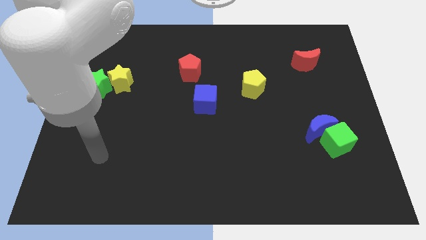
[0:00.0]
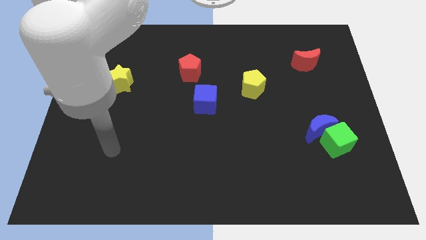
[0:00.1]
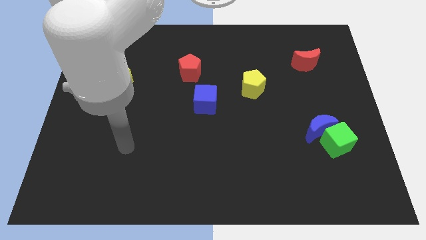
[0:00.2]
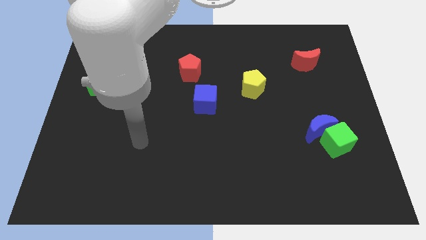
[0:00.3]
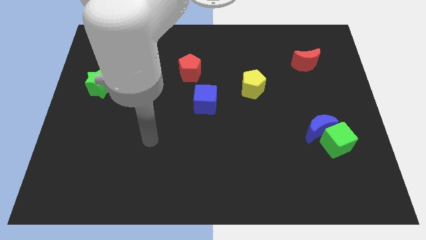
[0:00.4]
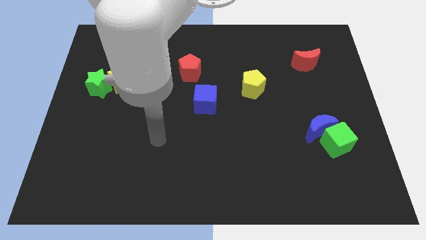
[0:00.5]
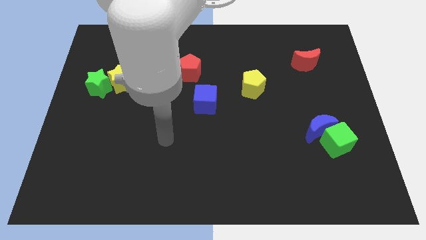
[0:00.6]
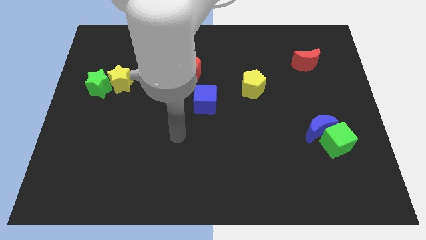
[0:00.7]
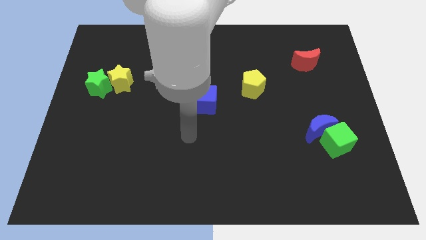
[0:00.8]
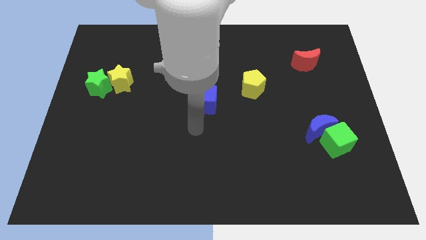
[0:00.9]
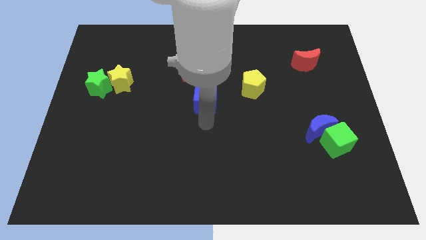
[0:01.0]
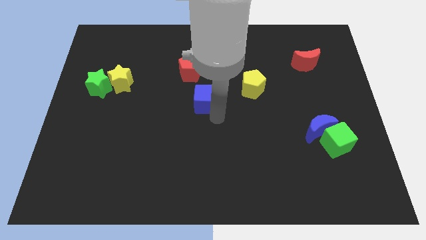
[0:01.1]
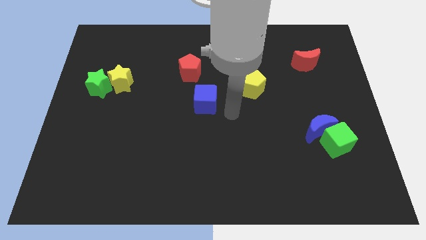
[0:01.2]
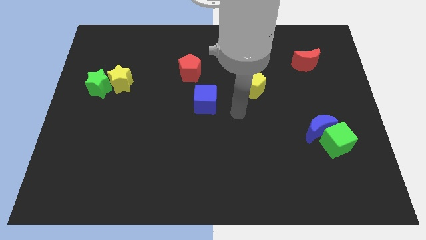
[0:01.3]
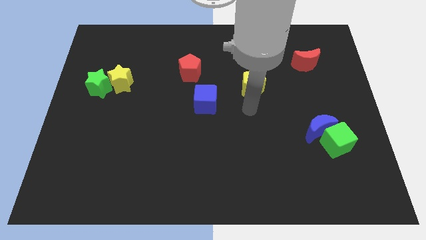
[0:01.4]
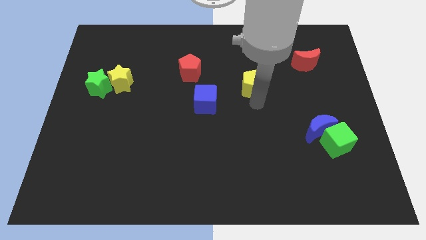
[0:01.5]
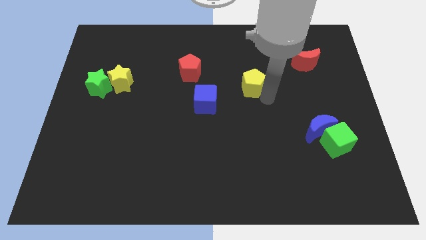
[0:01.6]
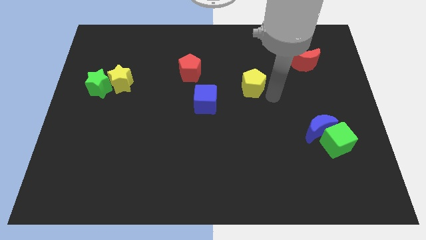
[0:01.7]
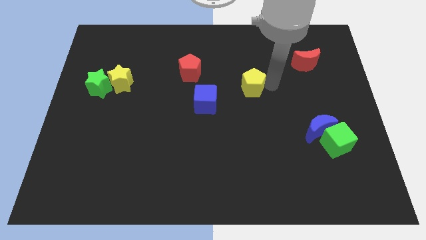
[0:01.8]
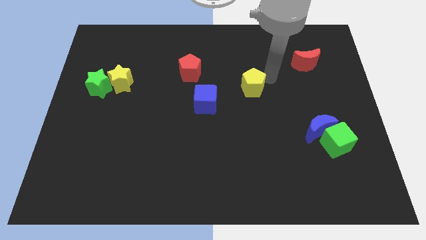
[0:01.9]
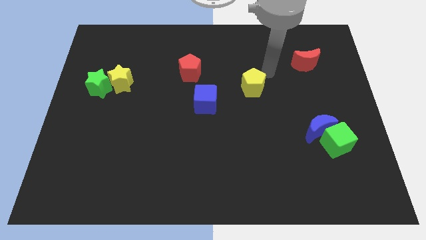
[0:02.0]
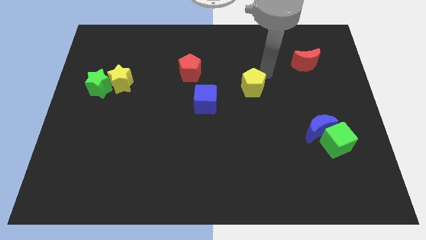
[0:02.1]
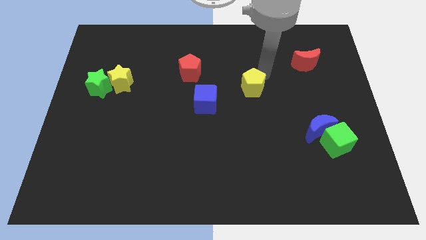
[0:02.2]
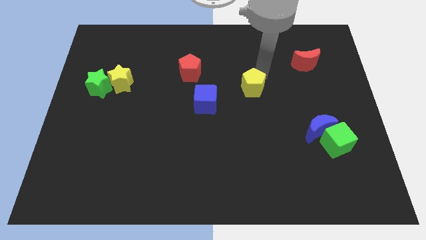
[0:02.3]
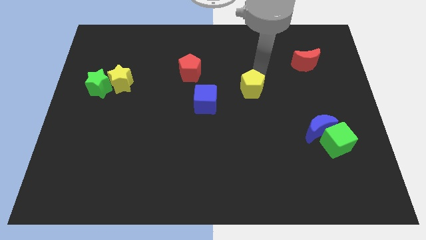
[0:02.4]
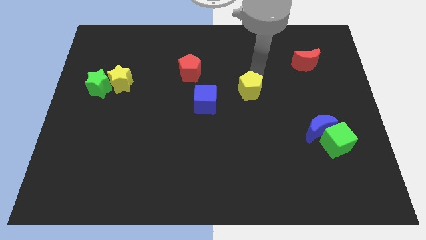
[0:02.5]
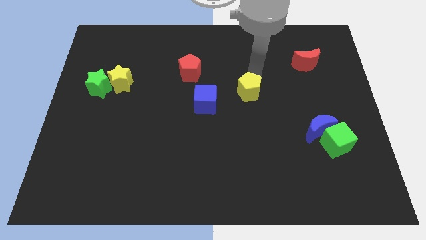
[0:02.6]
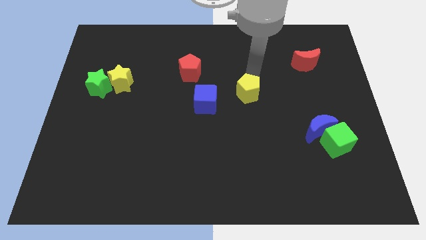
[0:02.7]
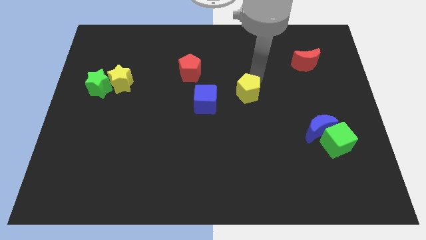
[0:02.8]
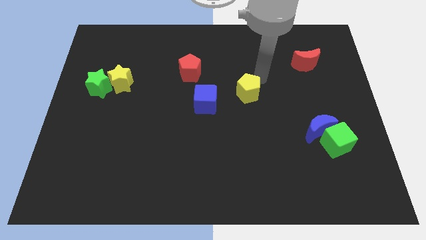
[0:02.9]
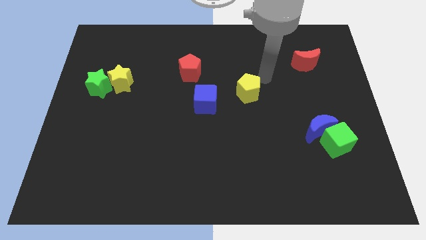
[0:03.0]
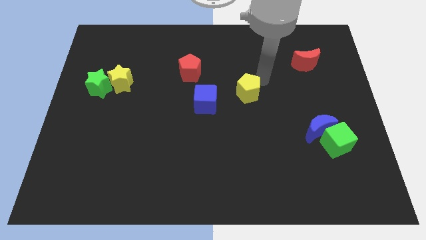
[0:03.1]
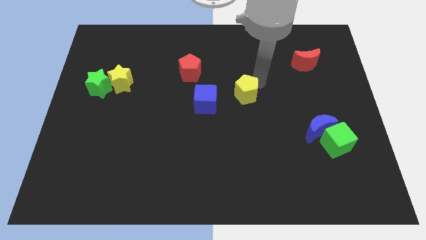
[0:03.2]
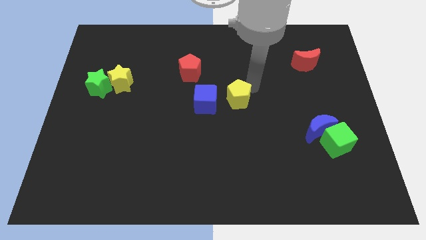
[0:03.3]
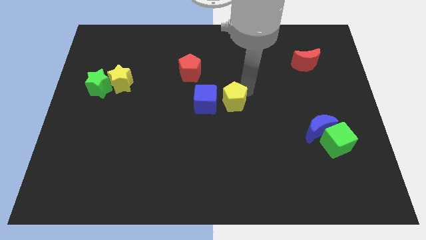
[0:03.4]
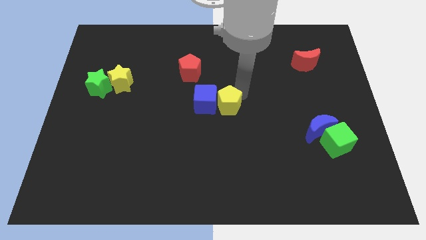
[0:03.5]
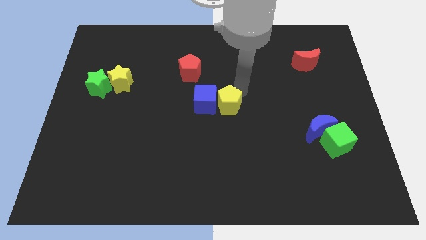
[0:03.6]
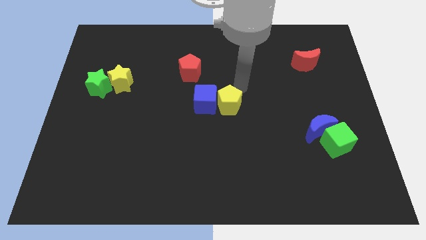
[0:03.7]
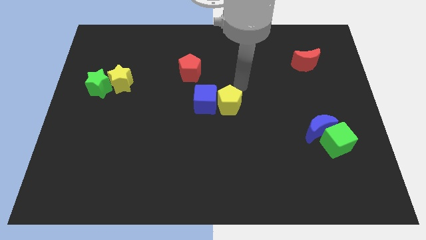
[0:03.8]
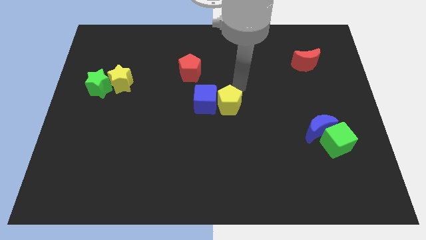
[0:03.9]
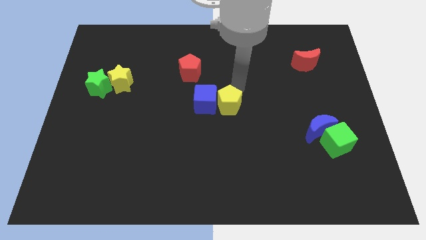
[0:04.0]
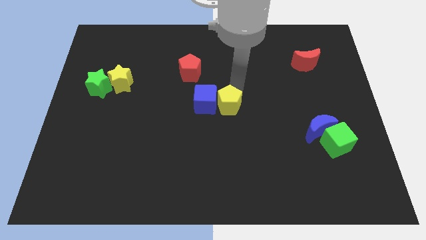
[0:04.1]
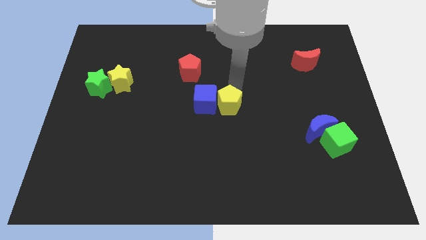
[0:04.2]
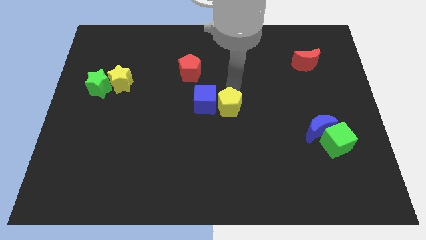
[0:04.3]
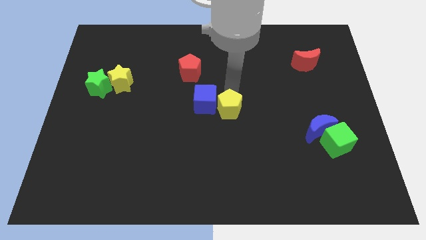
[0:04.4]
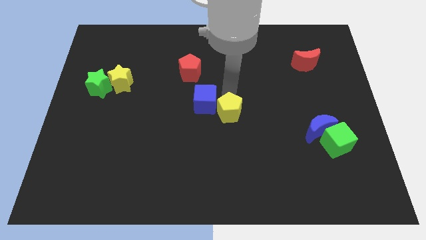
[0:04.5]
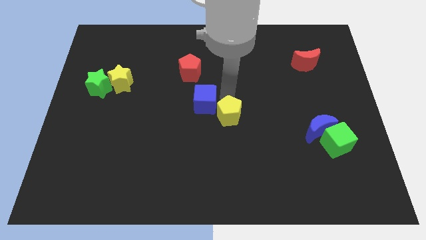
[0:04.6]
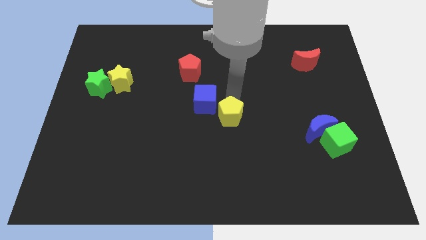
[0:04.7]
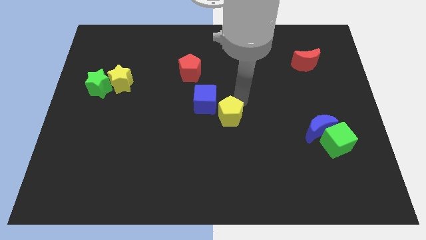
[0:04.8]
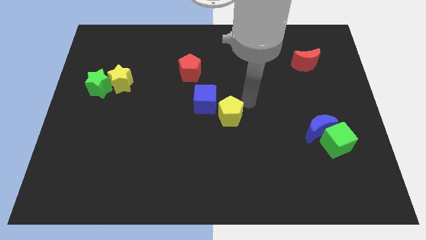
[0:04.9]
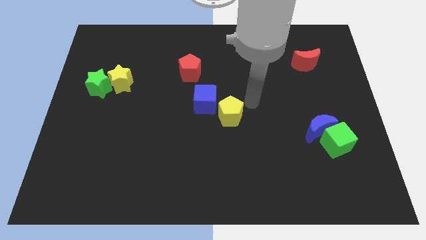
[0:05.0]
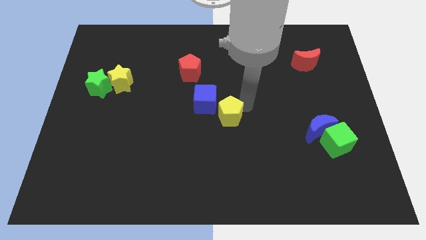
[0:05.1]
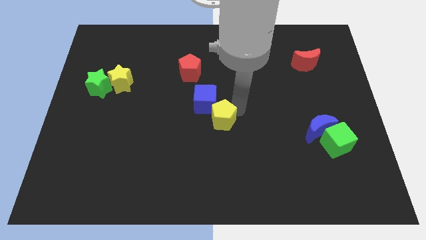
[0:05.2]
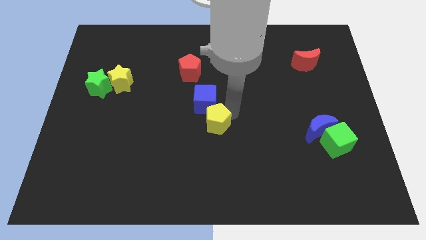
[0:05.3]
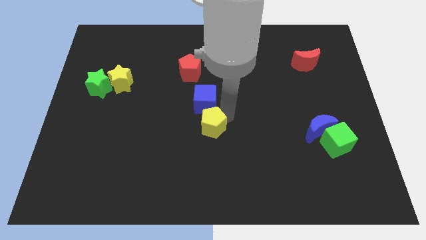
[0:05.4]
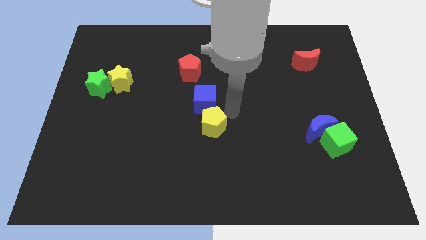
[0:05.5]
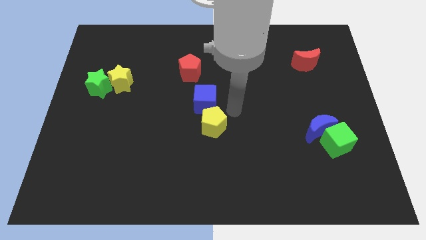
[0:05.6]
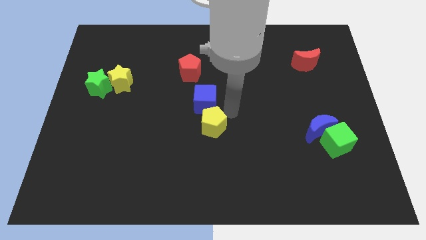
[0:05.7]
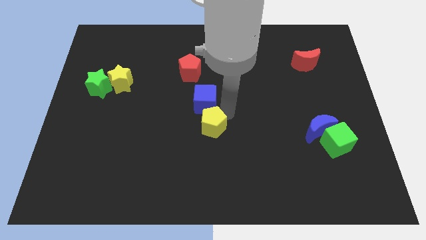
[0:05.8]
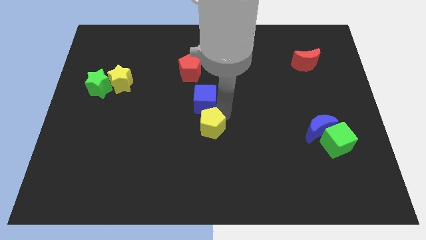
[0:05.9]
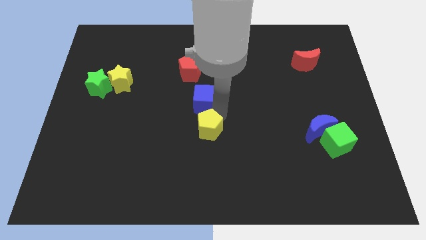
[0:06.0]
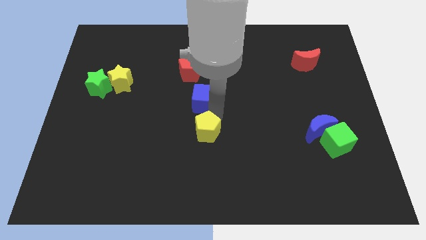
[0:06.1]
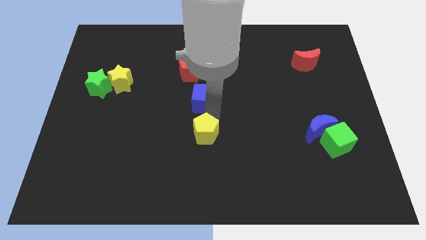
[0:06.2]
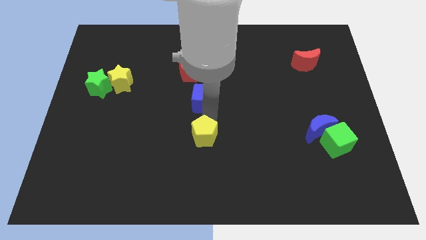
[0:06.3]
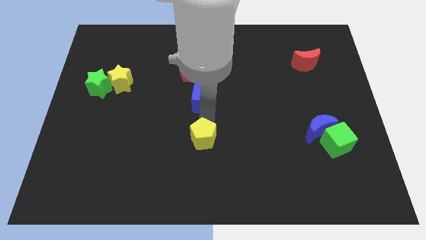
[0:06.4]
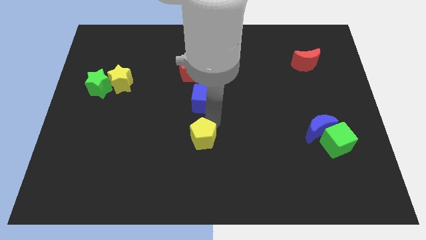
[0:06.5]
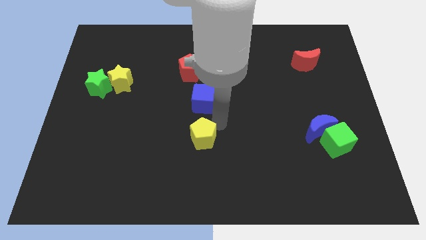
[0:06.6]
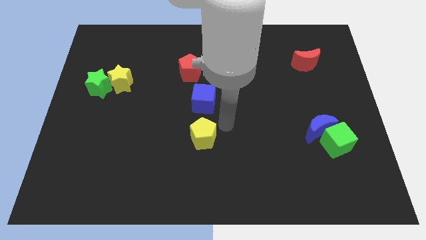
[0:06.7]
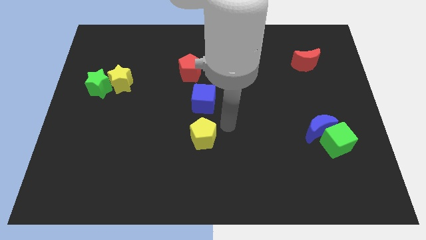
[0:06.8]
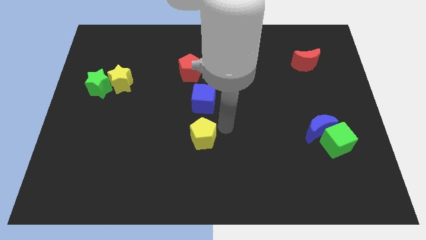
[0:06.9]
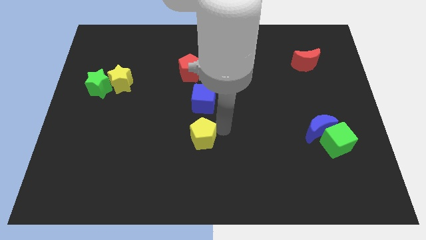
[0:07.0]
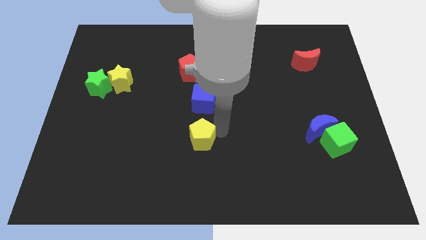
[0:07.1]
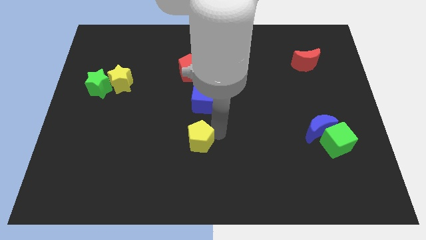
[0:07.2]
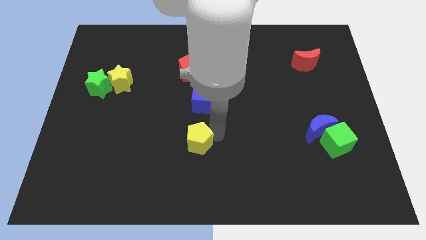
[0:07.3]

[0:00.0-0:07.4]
push the yellow pentagon diagonally down and left

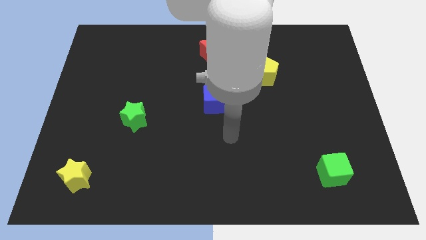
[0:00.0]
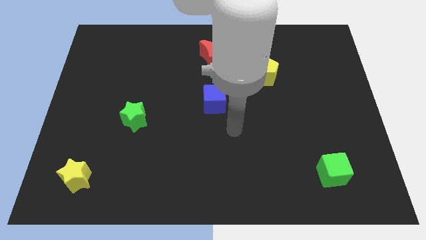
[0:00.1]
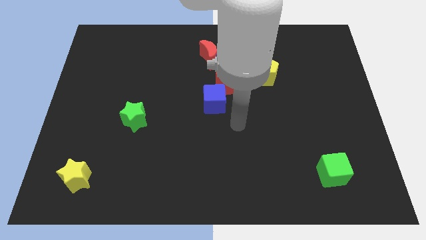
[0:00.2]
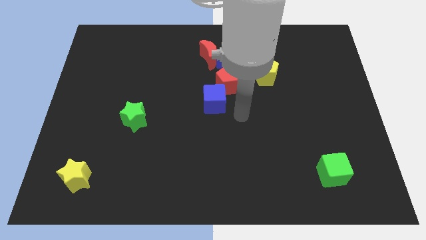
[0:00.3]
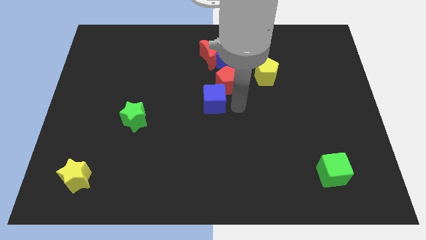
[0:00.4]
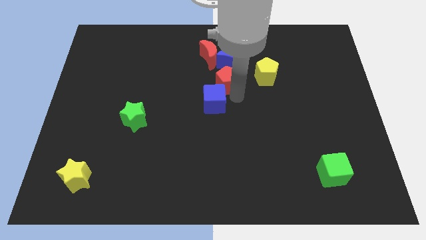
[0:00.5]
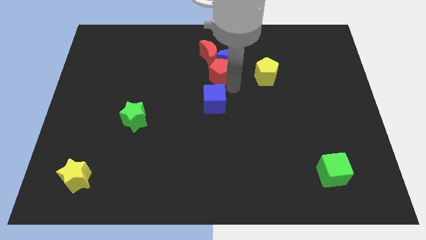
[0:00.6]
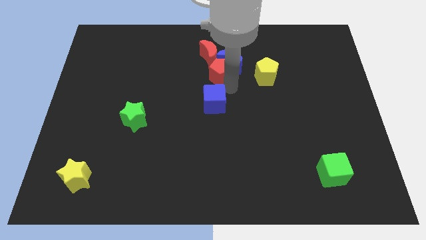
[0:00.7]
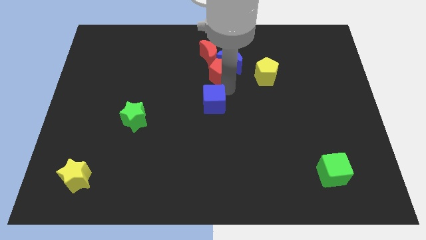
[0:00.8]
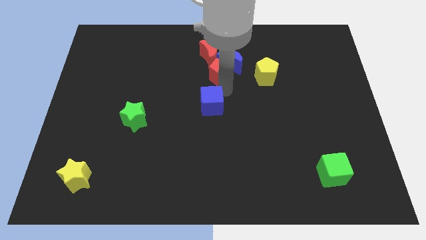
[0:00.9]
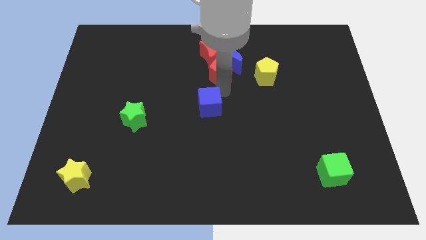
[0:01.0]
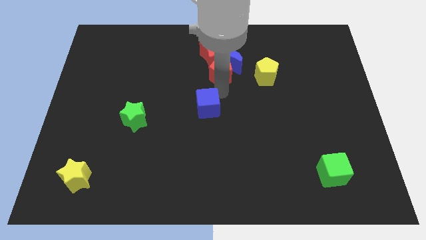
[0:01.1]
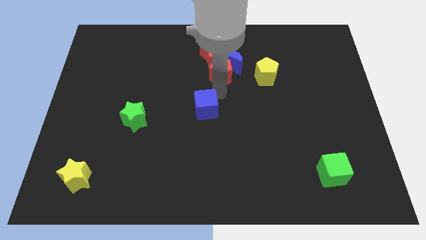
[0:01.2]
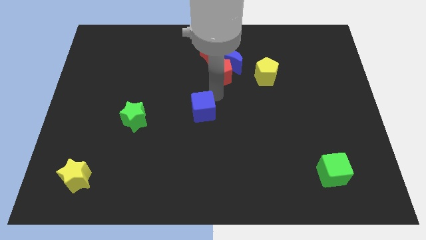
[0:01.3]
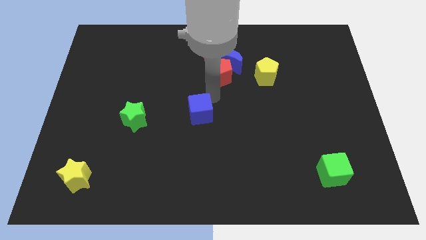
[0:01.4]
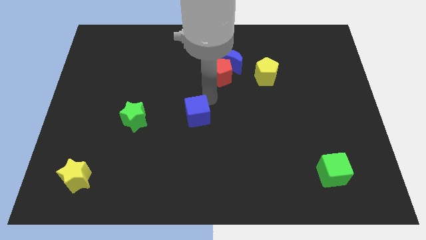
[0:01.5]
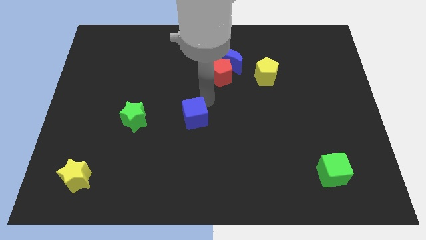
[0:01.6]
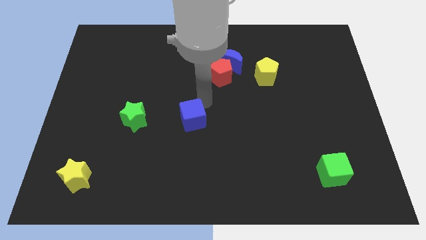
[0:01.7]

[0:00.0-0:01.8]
move the blue cube downwards and left a little
